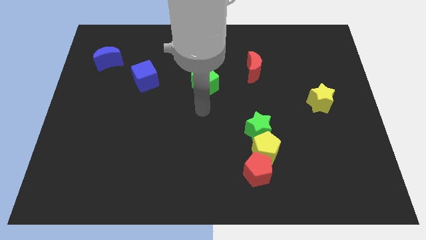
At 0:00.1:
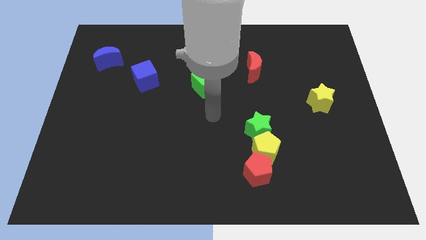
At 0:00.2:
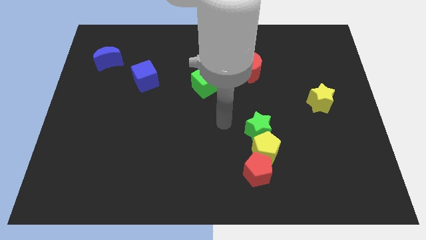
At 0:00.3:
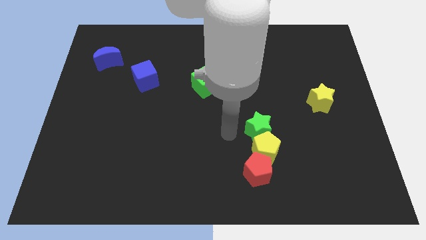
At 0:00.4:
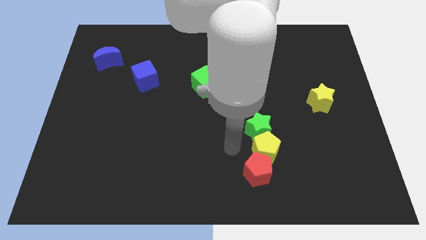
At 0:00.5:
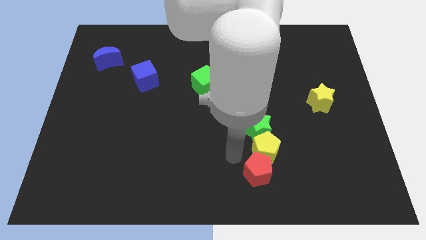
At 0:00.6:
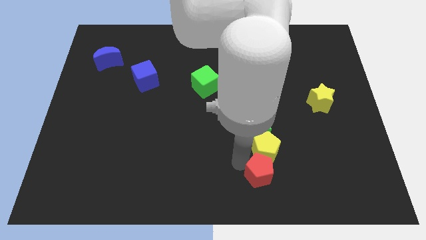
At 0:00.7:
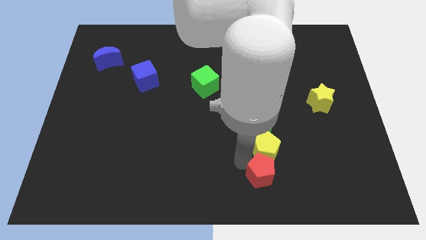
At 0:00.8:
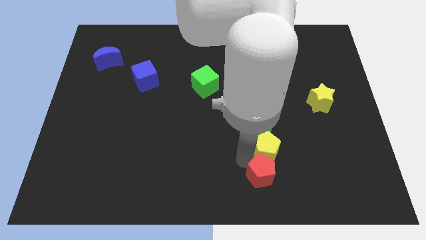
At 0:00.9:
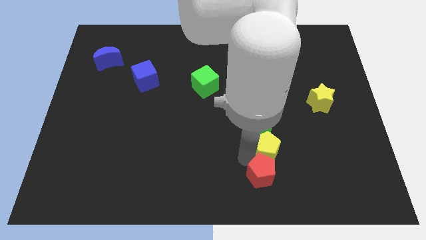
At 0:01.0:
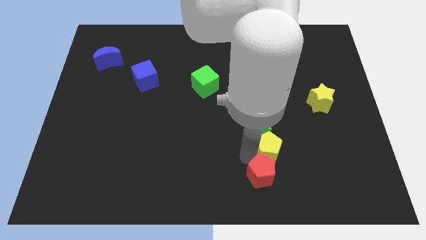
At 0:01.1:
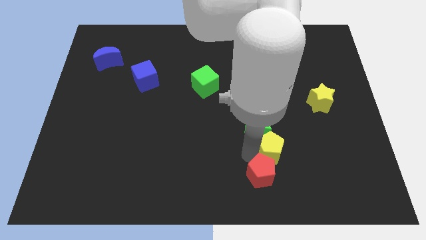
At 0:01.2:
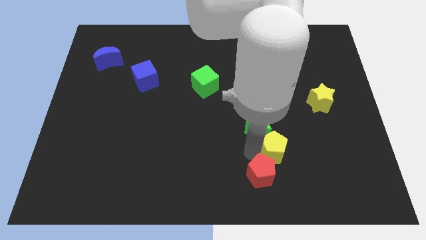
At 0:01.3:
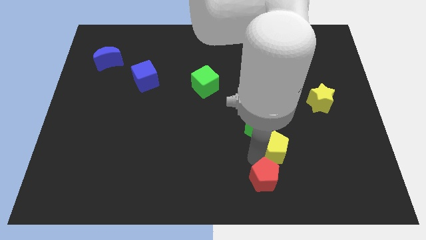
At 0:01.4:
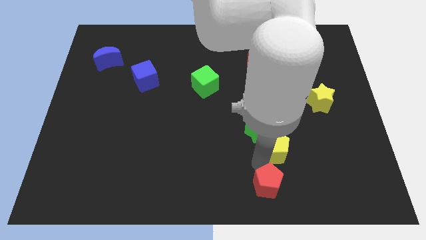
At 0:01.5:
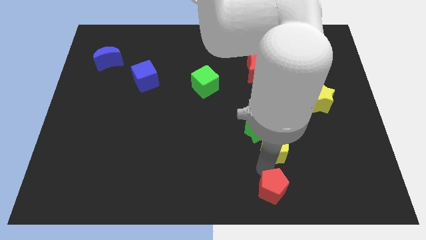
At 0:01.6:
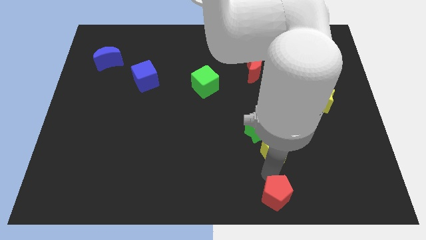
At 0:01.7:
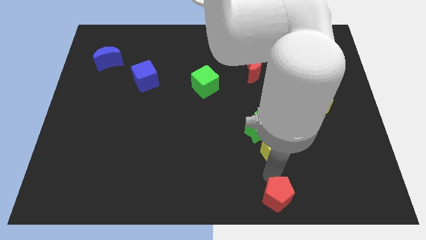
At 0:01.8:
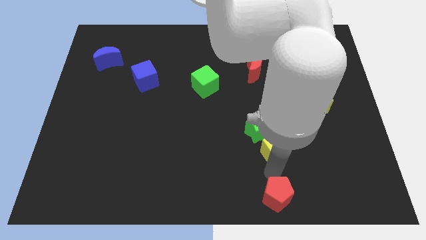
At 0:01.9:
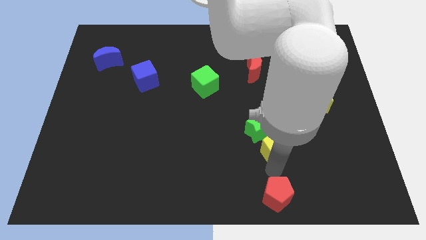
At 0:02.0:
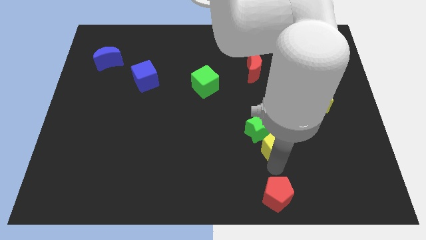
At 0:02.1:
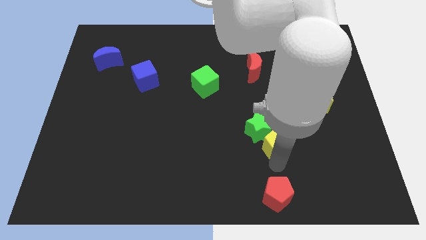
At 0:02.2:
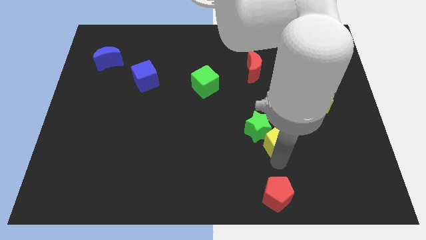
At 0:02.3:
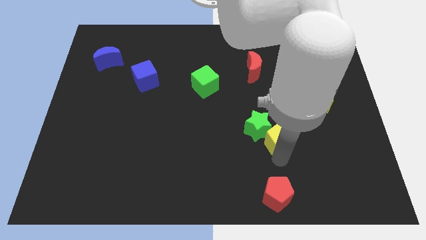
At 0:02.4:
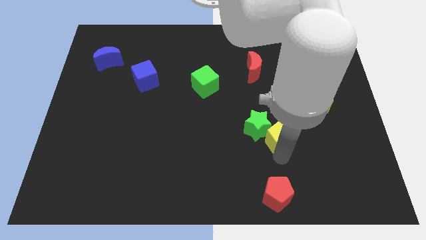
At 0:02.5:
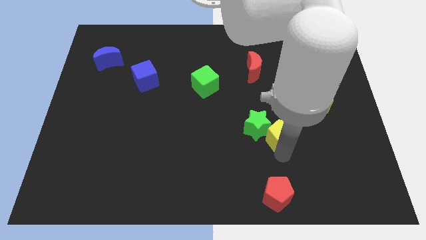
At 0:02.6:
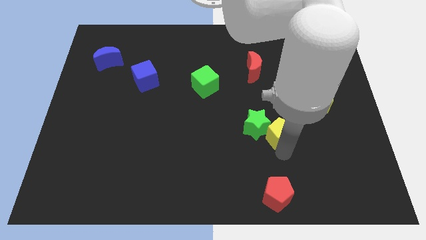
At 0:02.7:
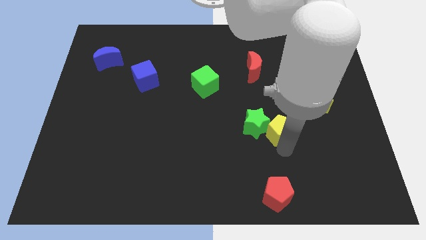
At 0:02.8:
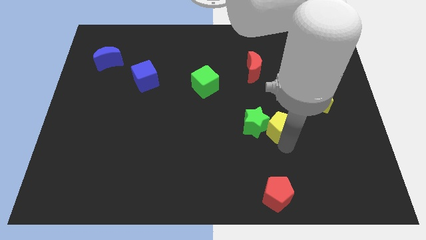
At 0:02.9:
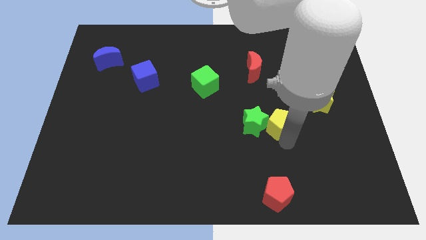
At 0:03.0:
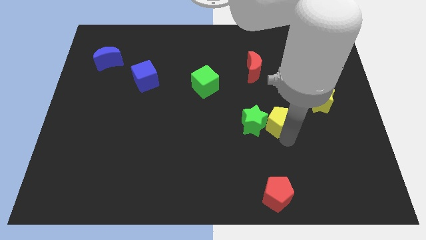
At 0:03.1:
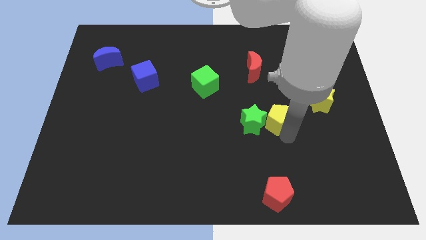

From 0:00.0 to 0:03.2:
push the yellow pentagon upwards somewhat

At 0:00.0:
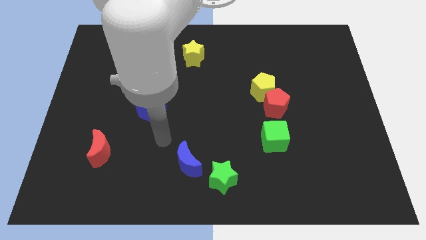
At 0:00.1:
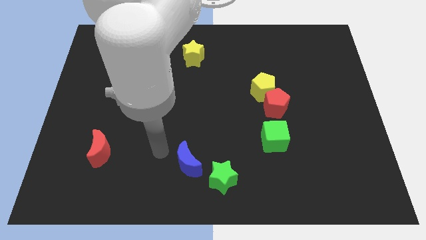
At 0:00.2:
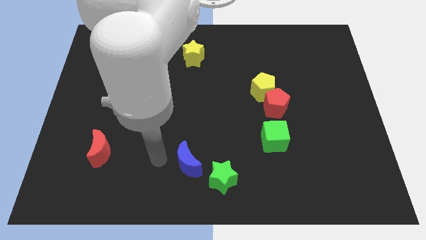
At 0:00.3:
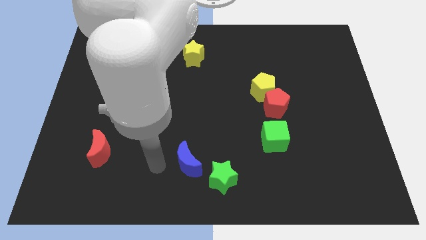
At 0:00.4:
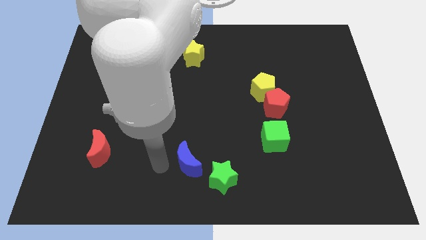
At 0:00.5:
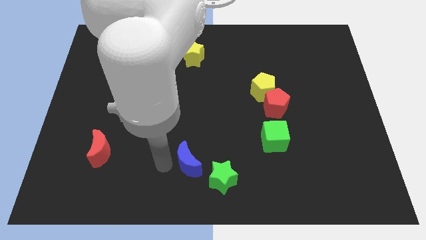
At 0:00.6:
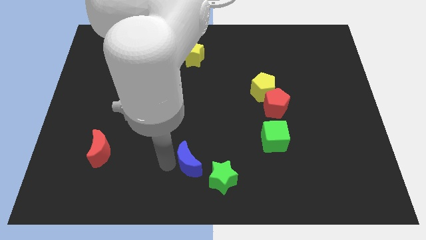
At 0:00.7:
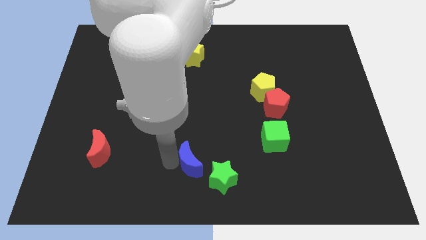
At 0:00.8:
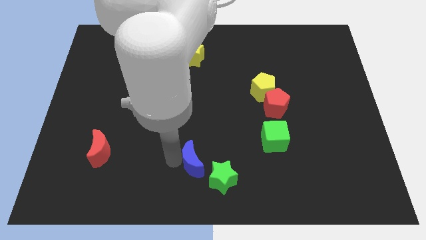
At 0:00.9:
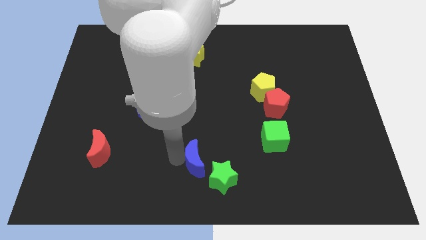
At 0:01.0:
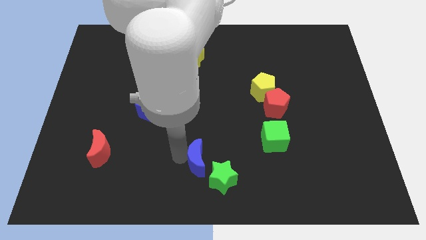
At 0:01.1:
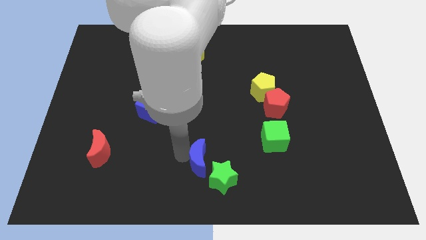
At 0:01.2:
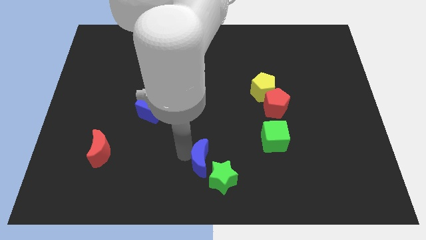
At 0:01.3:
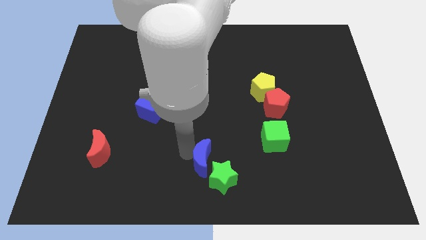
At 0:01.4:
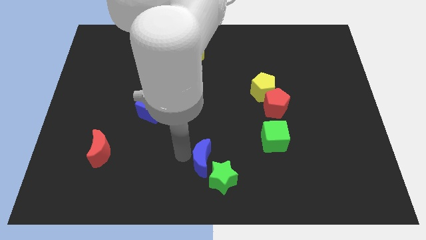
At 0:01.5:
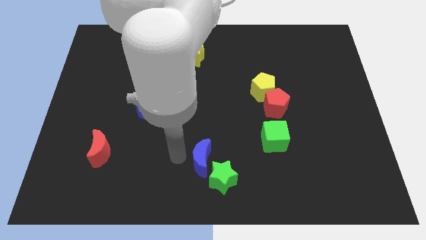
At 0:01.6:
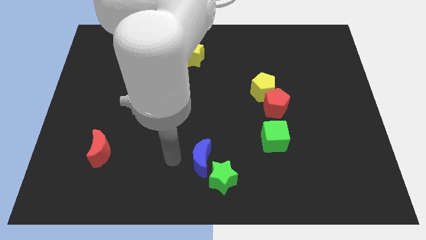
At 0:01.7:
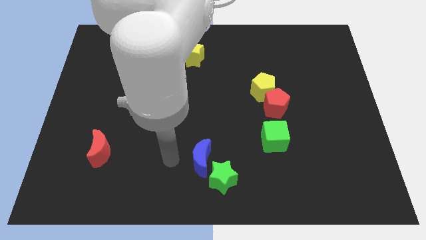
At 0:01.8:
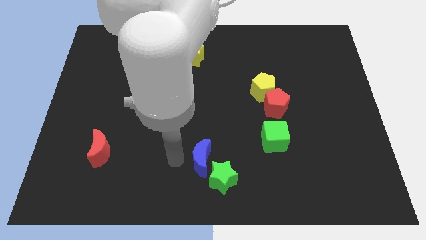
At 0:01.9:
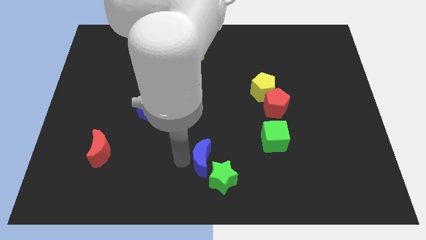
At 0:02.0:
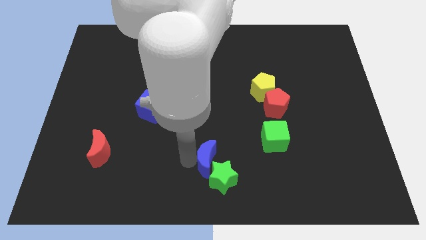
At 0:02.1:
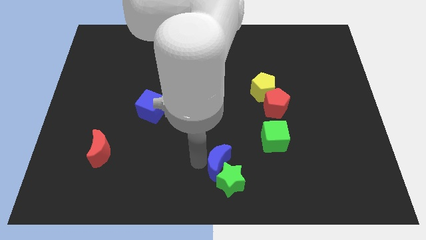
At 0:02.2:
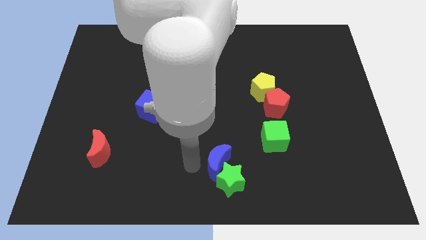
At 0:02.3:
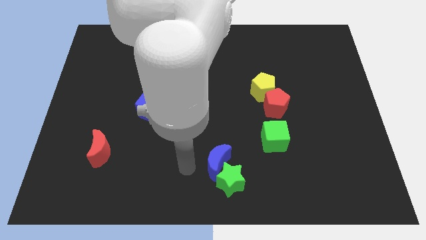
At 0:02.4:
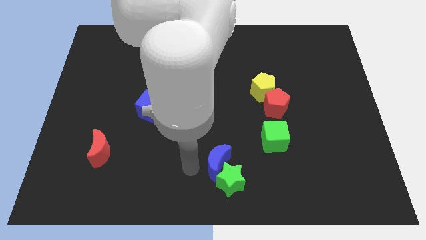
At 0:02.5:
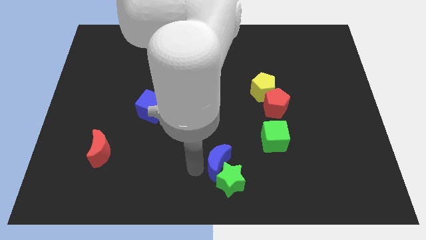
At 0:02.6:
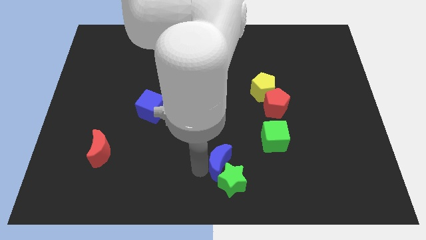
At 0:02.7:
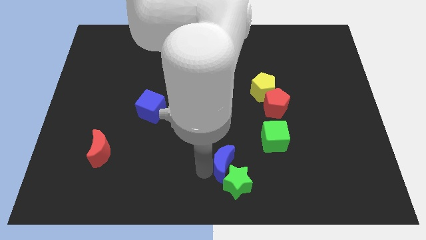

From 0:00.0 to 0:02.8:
slightly slide the blue moon to the right

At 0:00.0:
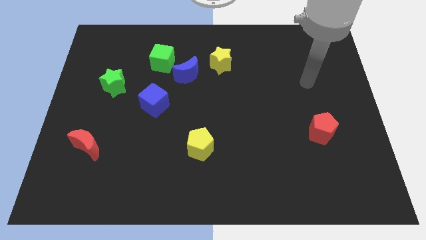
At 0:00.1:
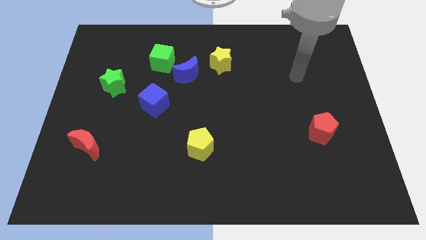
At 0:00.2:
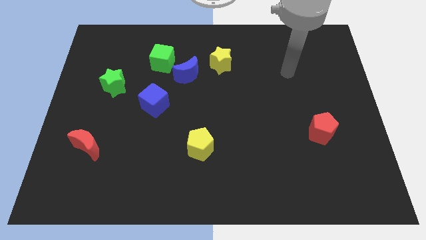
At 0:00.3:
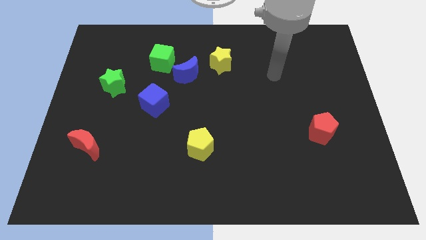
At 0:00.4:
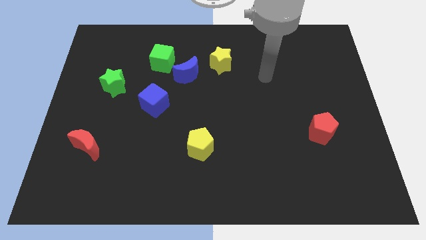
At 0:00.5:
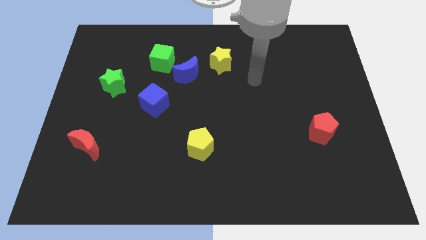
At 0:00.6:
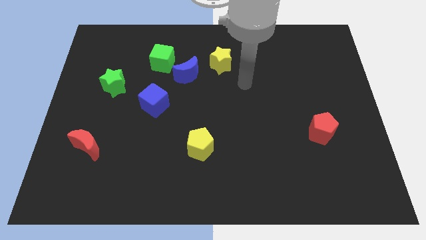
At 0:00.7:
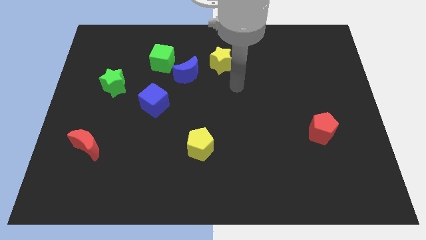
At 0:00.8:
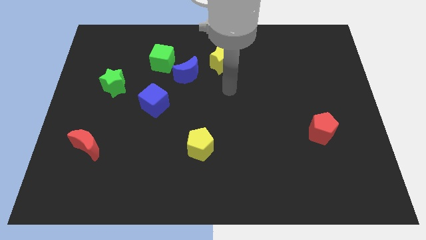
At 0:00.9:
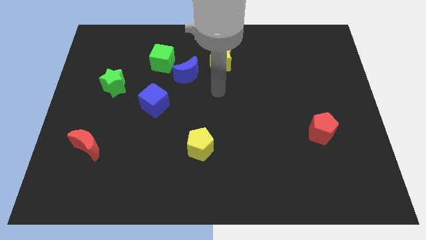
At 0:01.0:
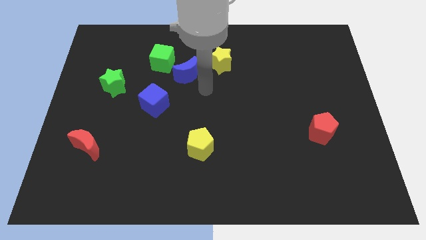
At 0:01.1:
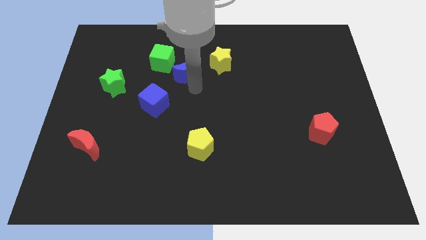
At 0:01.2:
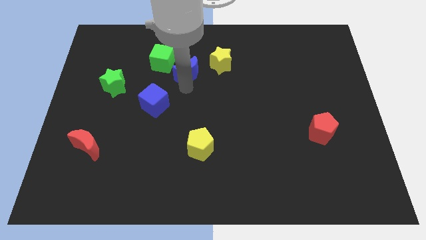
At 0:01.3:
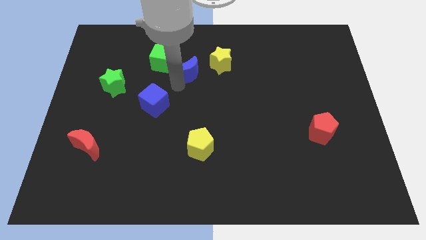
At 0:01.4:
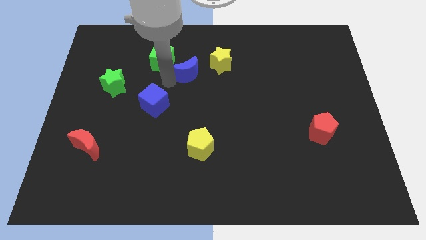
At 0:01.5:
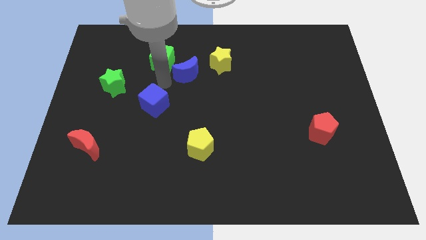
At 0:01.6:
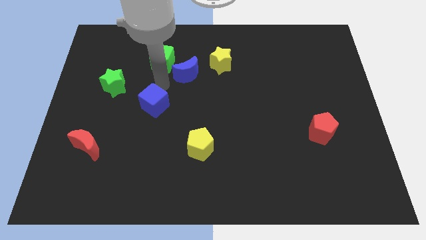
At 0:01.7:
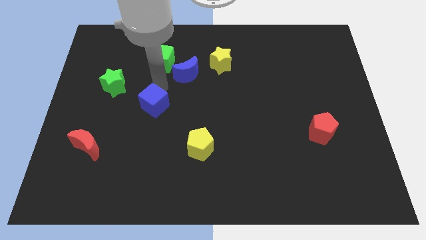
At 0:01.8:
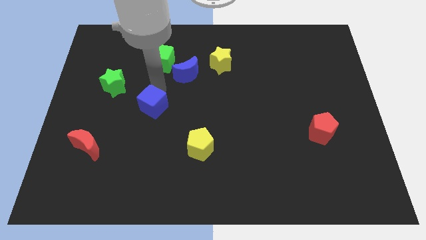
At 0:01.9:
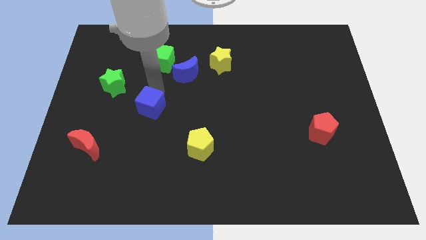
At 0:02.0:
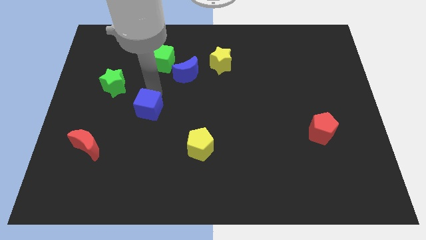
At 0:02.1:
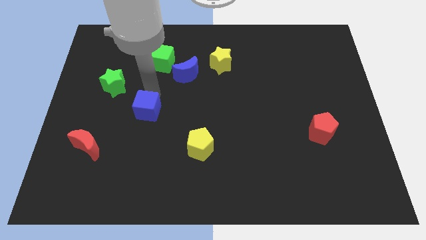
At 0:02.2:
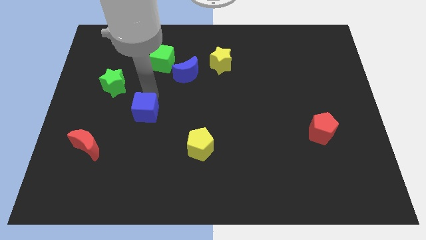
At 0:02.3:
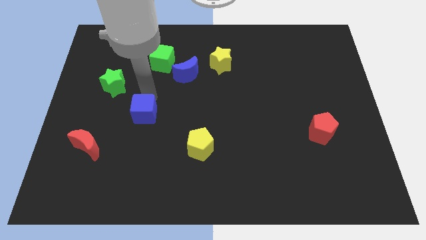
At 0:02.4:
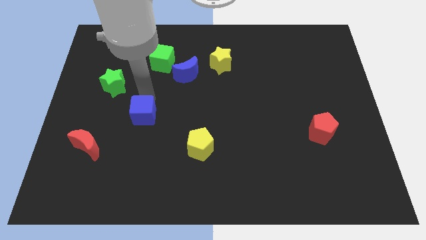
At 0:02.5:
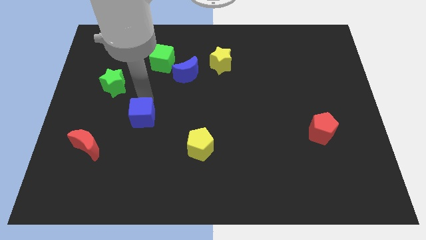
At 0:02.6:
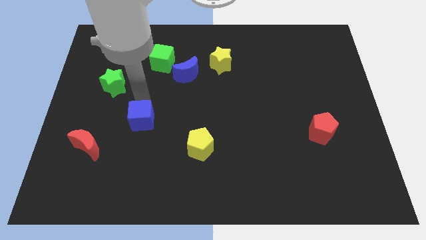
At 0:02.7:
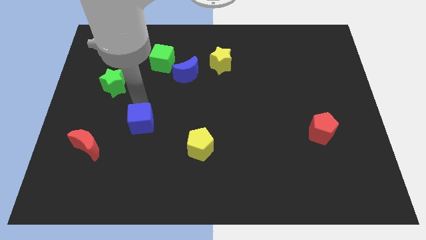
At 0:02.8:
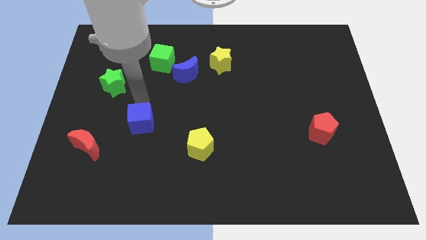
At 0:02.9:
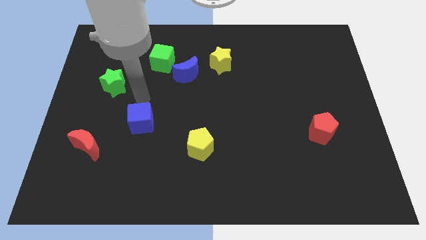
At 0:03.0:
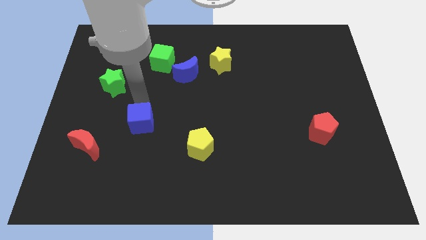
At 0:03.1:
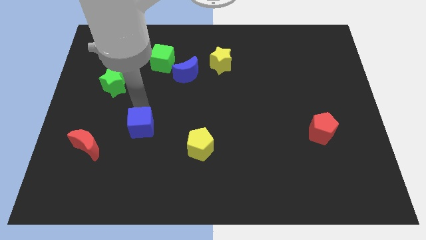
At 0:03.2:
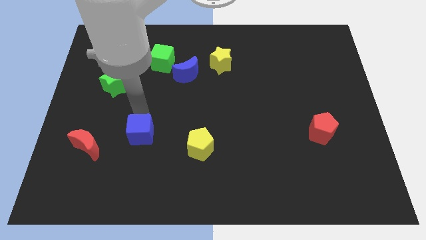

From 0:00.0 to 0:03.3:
slide the blue cube slightly downwards
